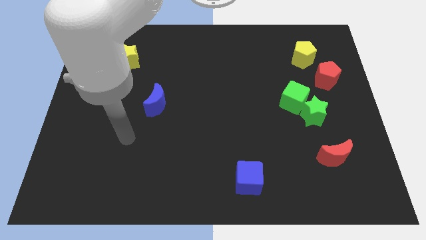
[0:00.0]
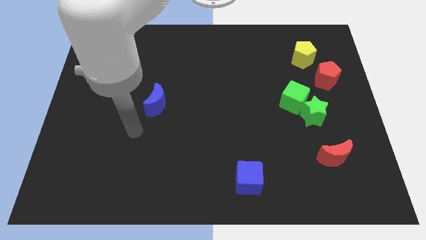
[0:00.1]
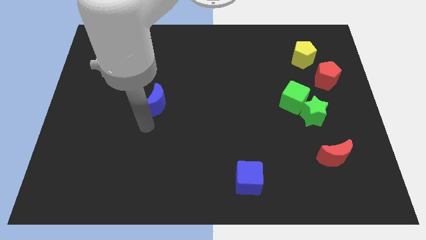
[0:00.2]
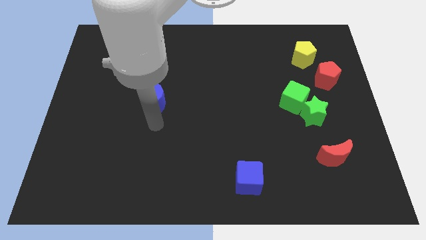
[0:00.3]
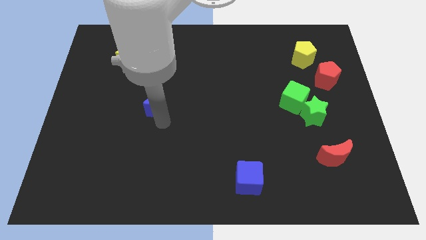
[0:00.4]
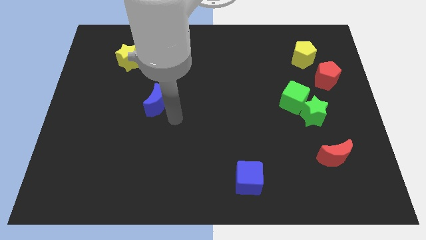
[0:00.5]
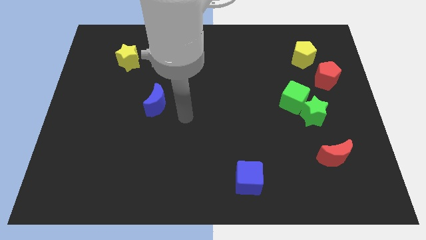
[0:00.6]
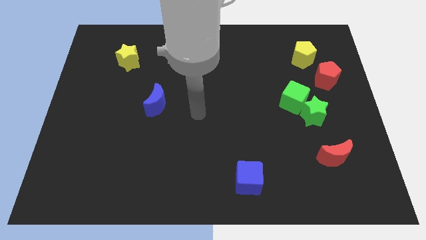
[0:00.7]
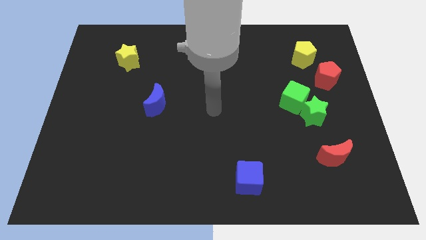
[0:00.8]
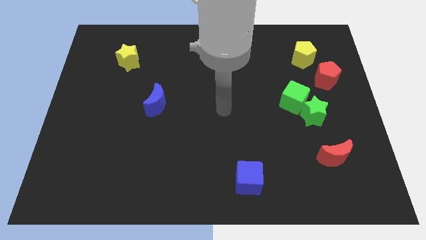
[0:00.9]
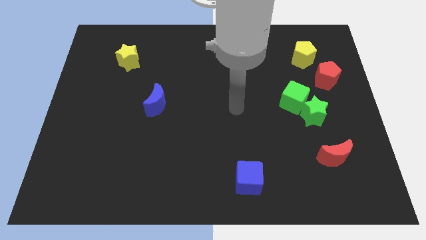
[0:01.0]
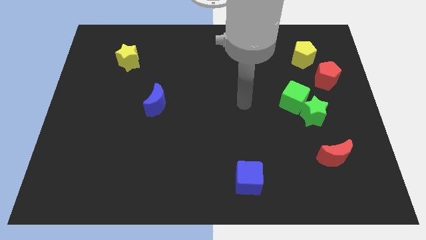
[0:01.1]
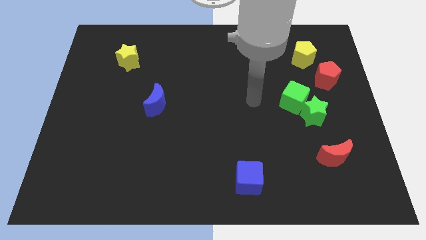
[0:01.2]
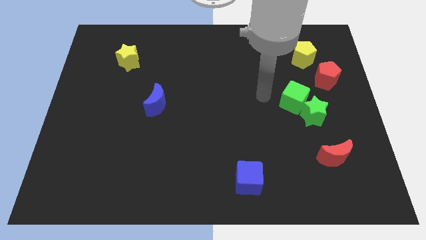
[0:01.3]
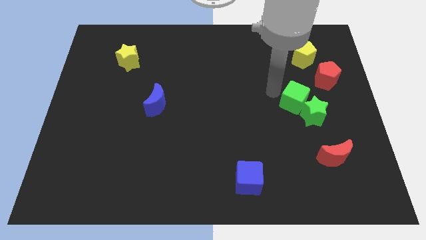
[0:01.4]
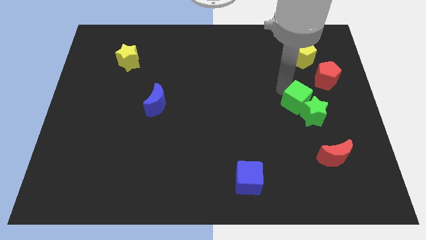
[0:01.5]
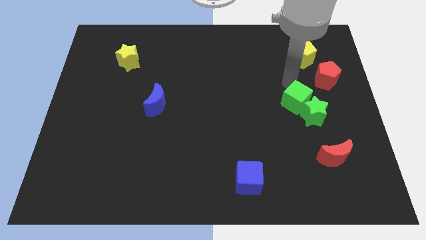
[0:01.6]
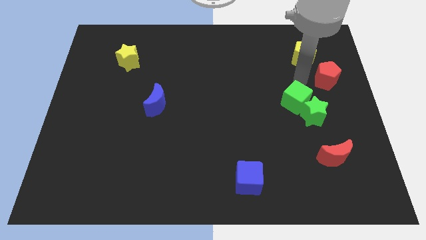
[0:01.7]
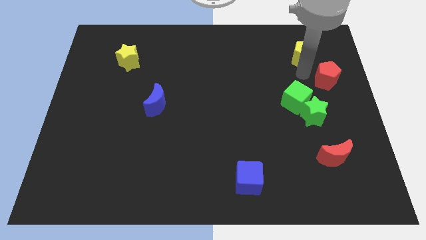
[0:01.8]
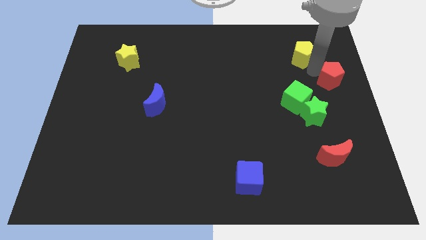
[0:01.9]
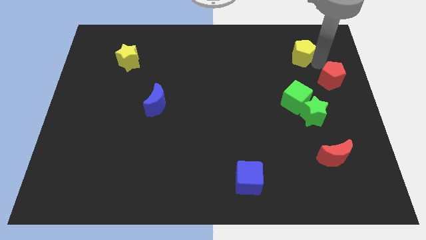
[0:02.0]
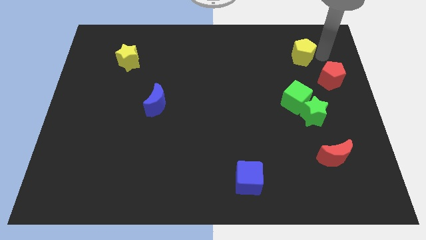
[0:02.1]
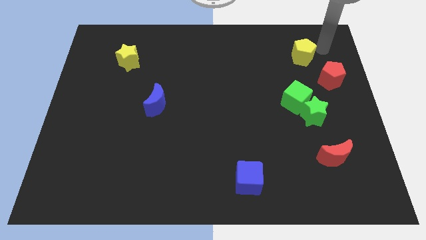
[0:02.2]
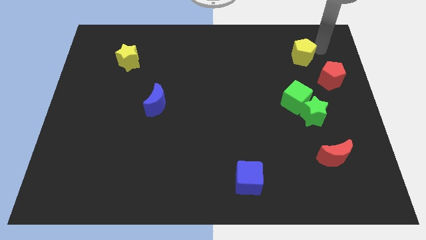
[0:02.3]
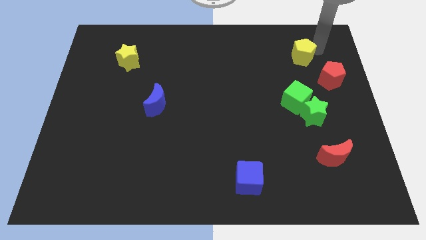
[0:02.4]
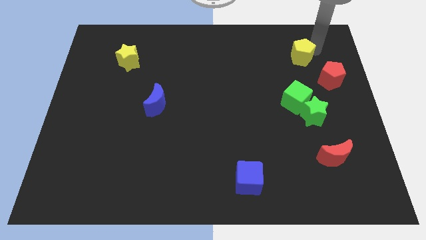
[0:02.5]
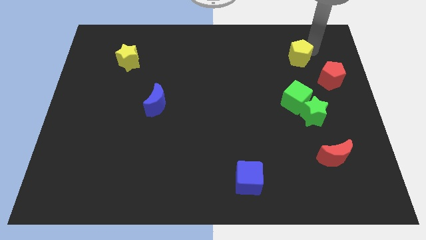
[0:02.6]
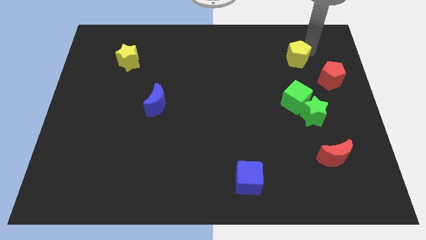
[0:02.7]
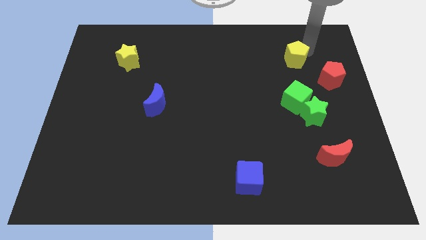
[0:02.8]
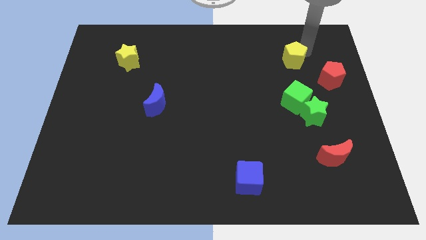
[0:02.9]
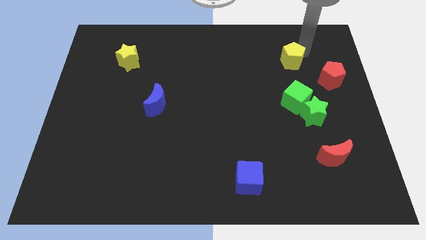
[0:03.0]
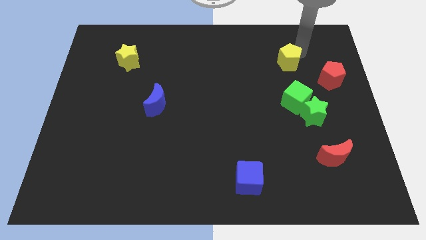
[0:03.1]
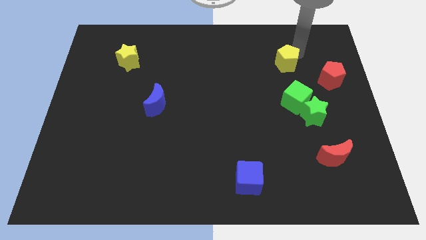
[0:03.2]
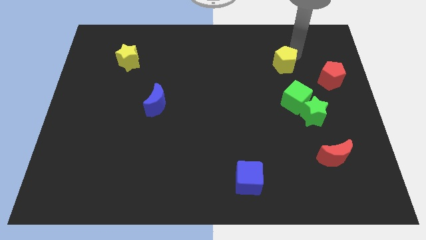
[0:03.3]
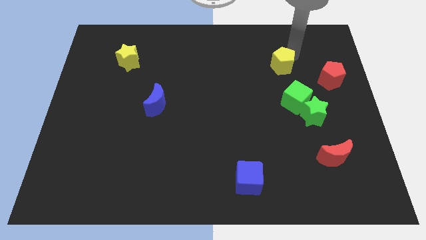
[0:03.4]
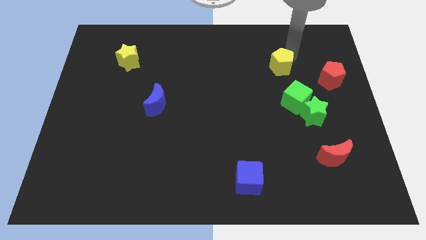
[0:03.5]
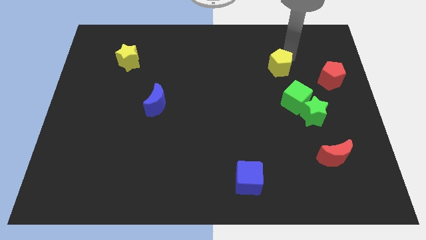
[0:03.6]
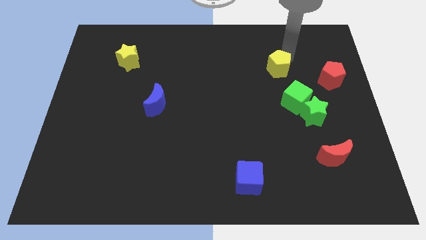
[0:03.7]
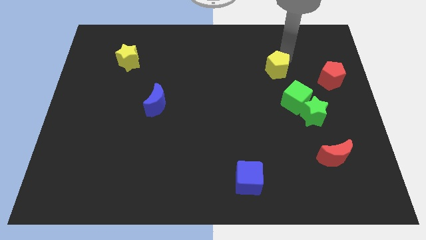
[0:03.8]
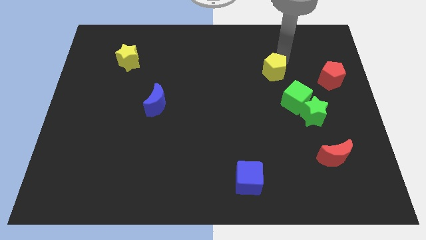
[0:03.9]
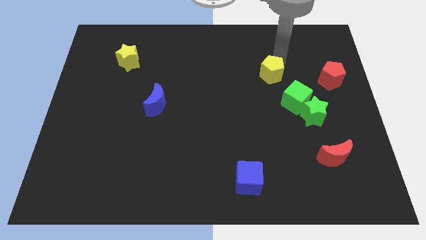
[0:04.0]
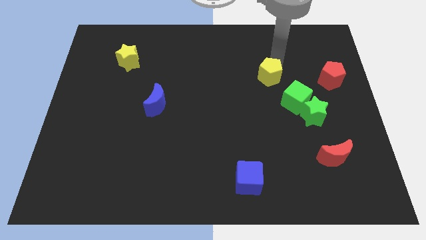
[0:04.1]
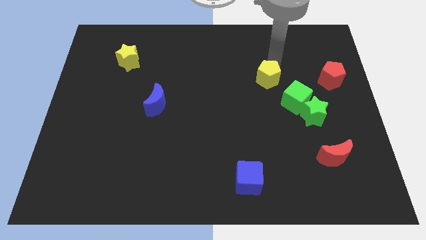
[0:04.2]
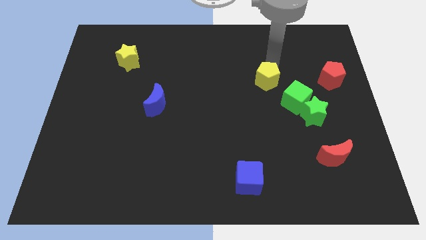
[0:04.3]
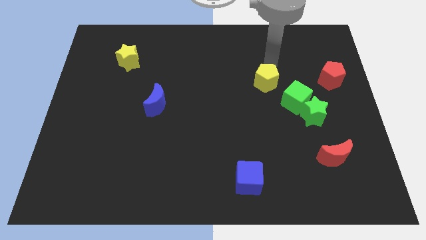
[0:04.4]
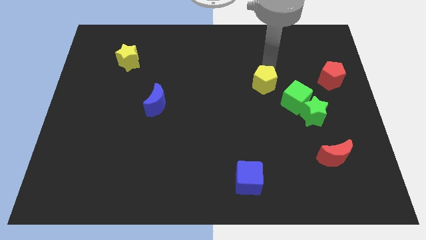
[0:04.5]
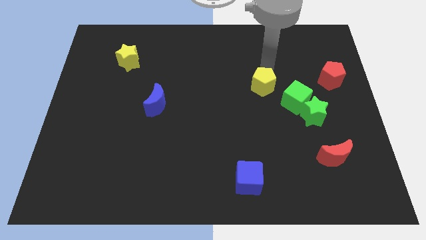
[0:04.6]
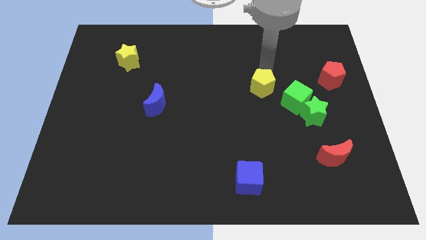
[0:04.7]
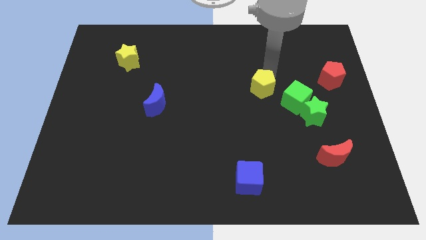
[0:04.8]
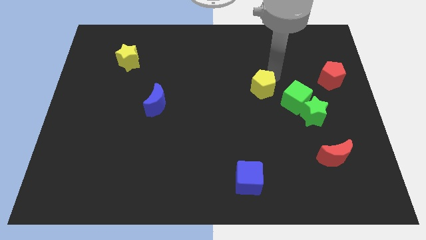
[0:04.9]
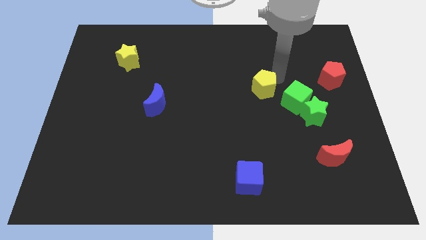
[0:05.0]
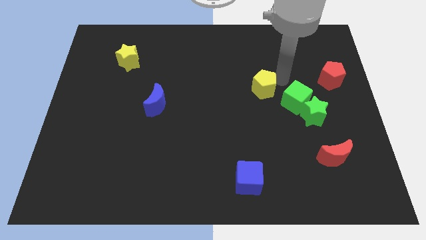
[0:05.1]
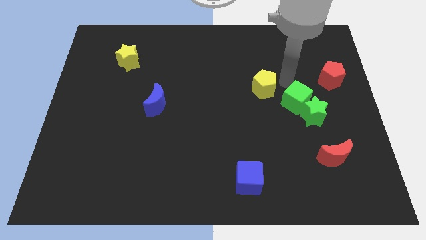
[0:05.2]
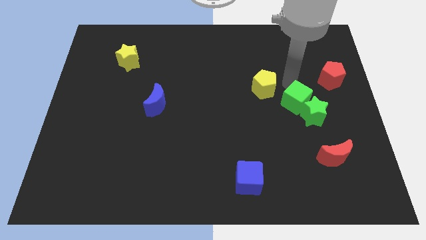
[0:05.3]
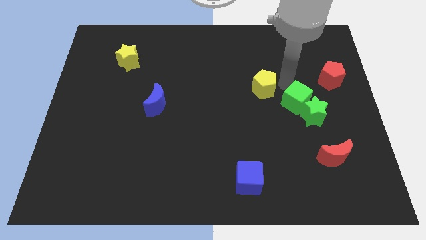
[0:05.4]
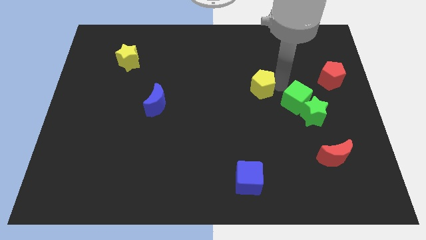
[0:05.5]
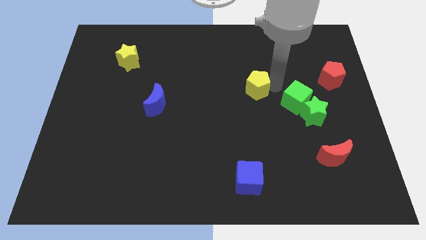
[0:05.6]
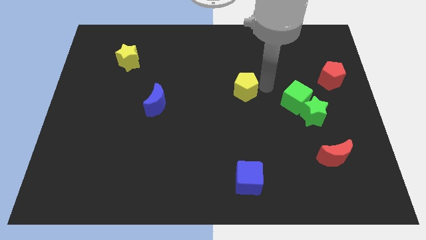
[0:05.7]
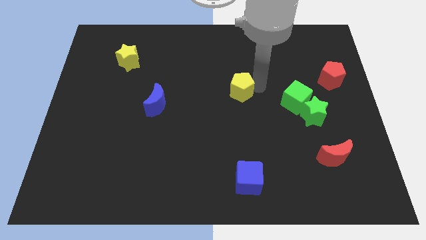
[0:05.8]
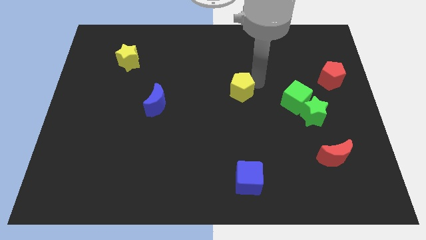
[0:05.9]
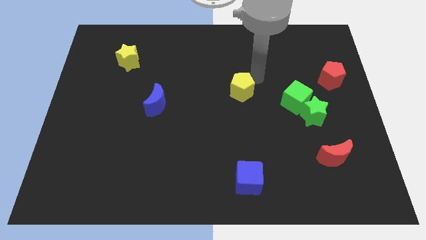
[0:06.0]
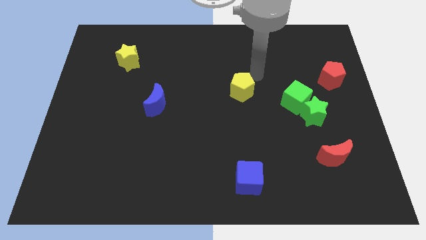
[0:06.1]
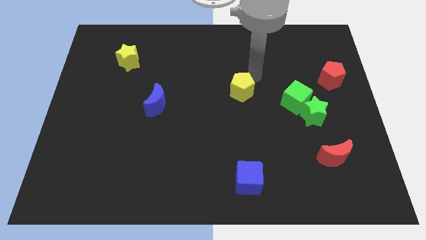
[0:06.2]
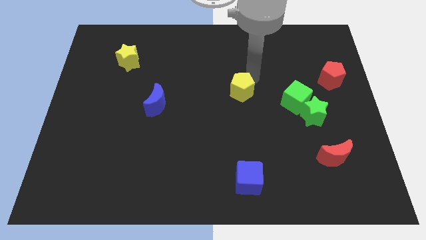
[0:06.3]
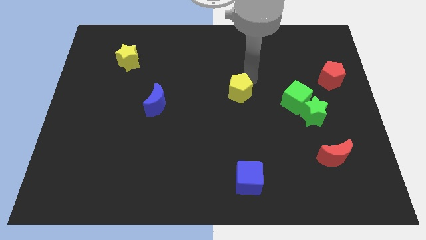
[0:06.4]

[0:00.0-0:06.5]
move the yellow pentagon downwards and left

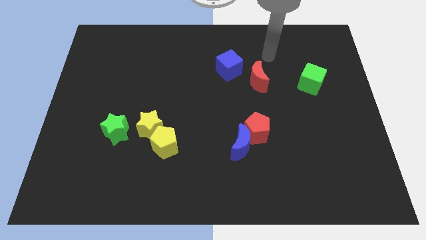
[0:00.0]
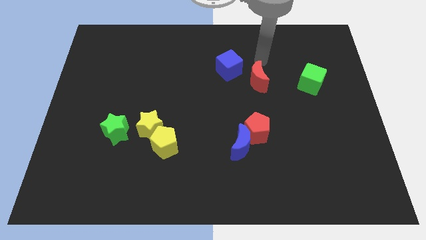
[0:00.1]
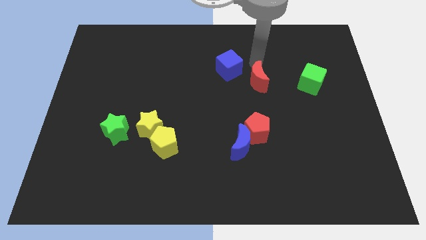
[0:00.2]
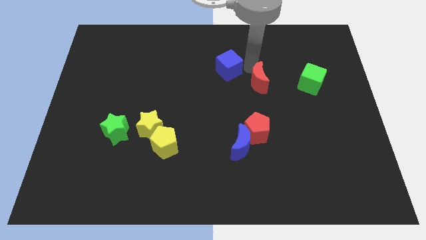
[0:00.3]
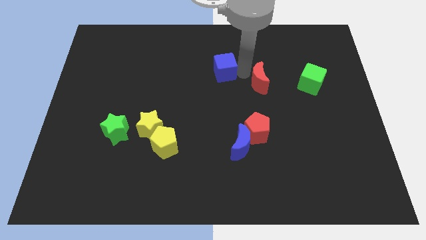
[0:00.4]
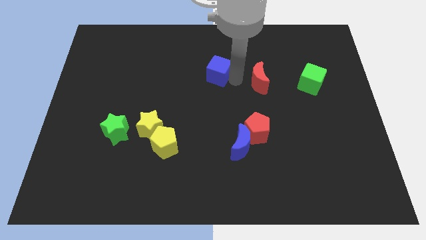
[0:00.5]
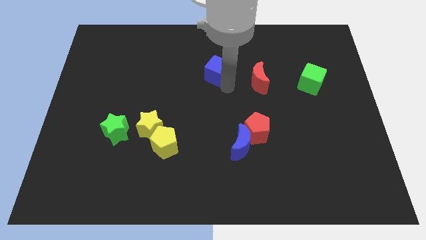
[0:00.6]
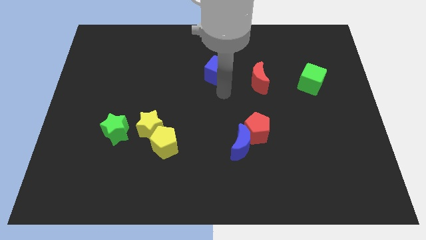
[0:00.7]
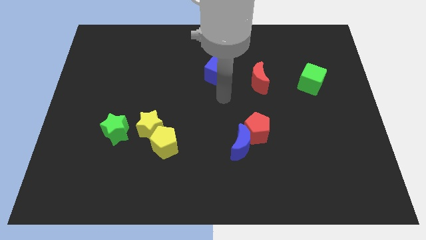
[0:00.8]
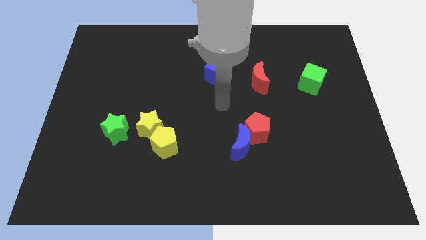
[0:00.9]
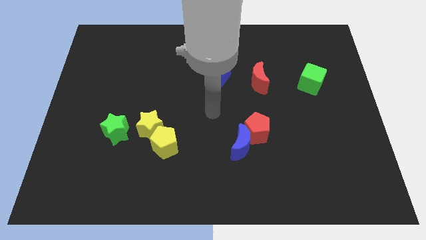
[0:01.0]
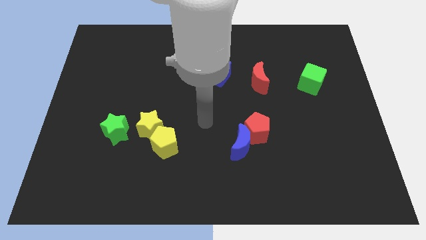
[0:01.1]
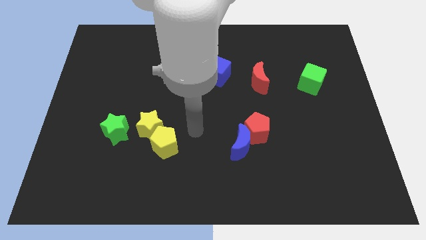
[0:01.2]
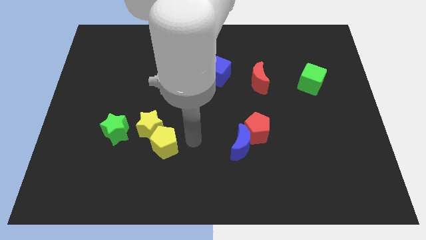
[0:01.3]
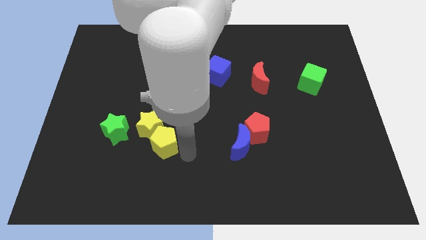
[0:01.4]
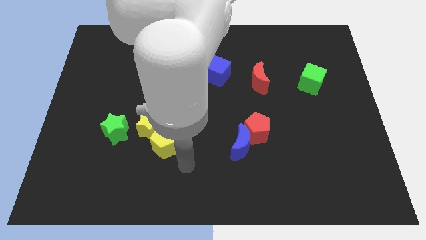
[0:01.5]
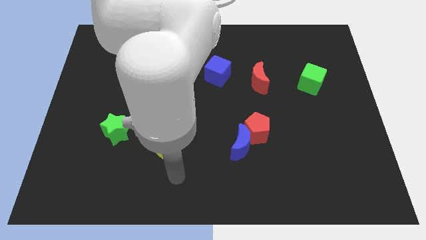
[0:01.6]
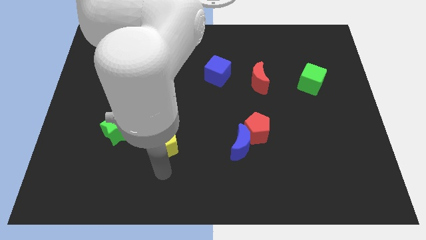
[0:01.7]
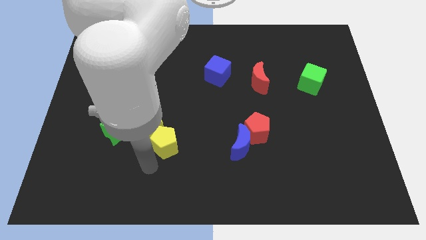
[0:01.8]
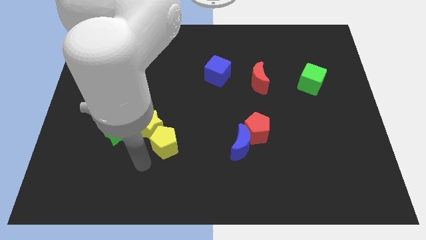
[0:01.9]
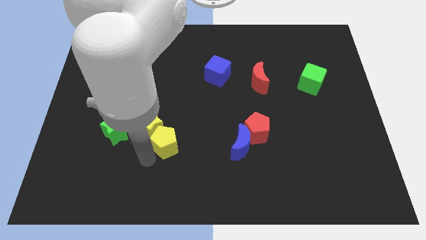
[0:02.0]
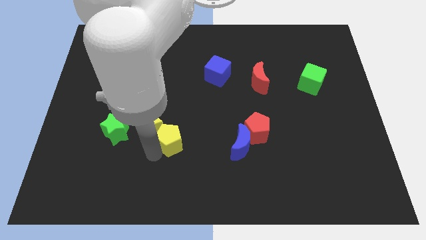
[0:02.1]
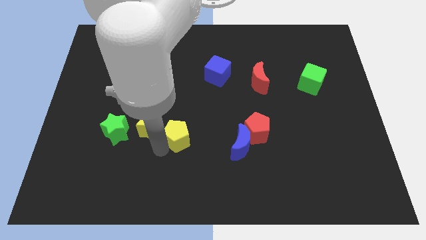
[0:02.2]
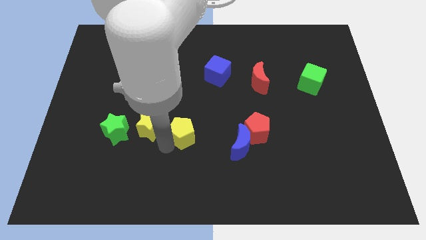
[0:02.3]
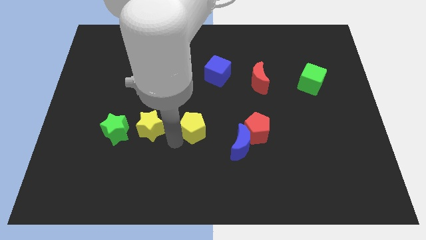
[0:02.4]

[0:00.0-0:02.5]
push the yellow pentagon upwards and then to the right slightly
